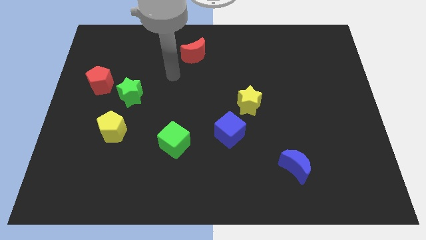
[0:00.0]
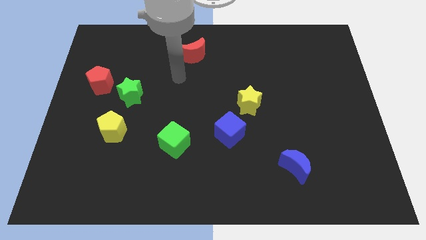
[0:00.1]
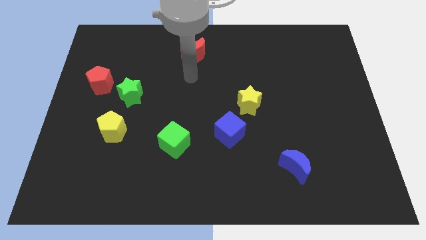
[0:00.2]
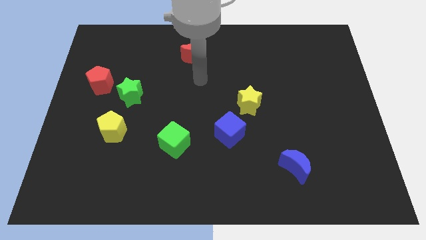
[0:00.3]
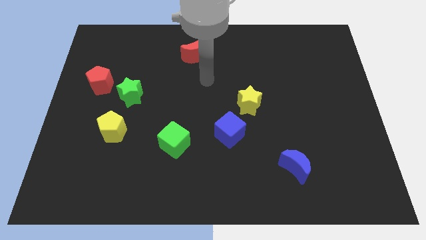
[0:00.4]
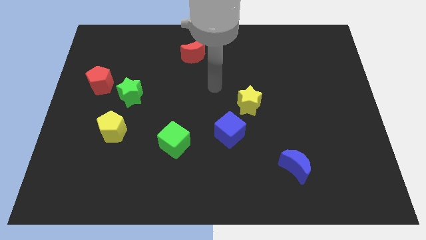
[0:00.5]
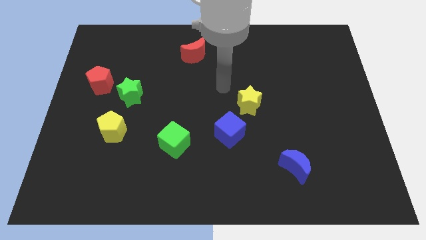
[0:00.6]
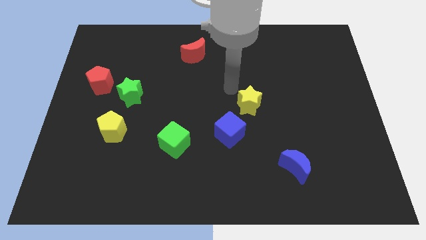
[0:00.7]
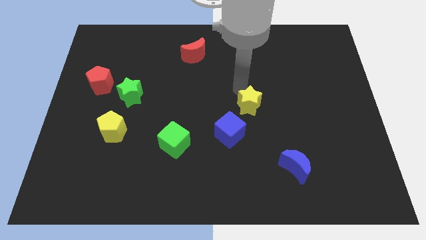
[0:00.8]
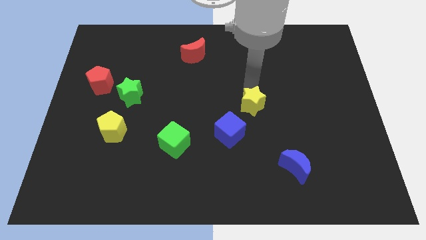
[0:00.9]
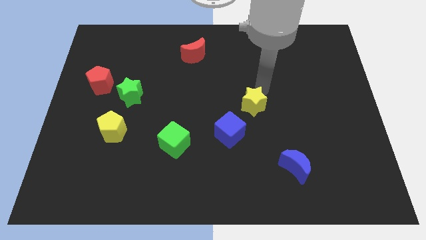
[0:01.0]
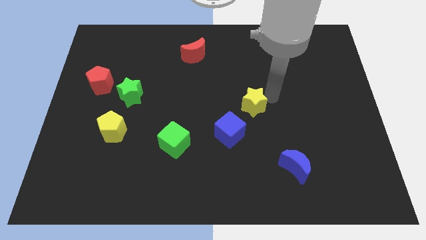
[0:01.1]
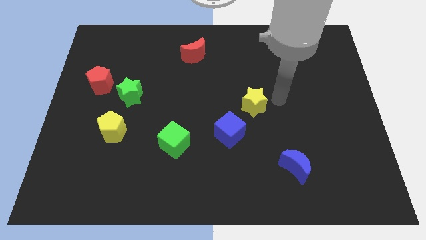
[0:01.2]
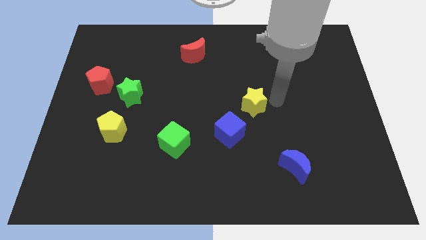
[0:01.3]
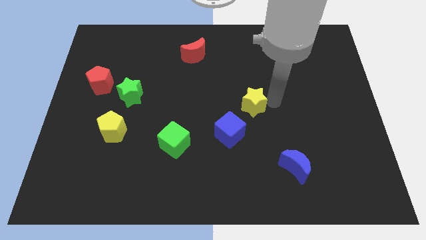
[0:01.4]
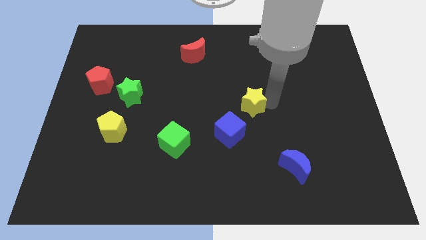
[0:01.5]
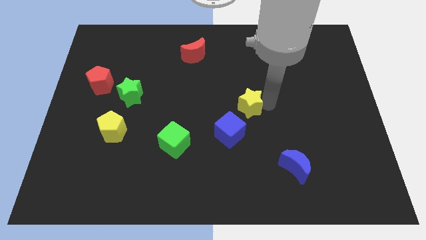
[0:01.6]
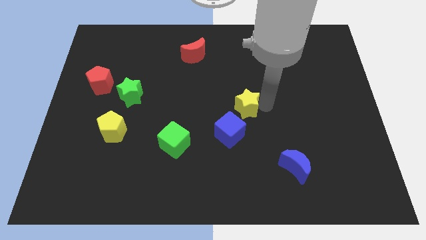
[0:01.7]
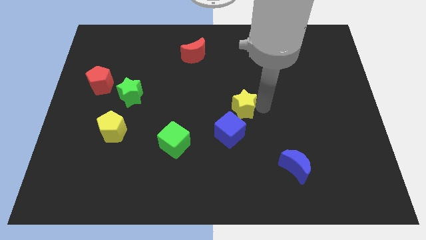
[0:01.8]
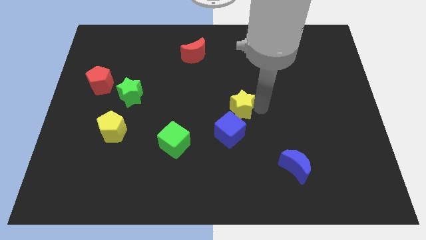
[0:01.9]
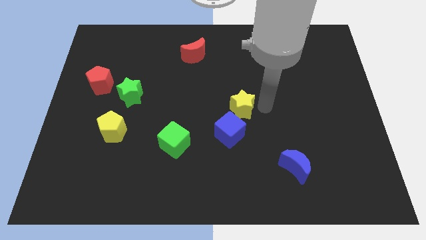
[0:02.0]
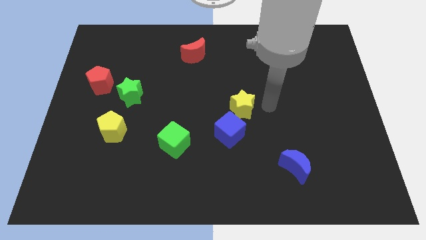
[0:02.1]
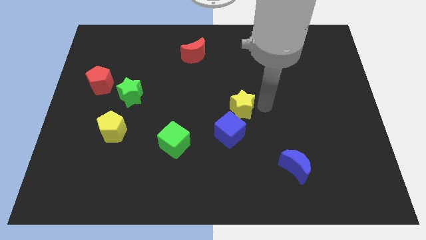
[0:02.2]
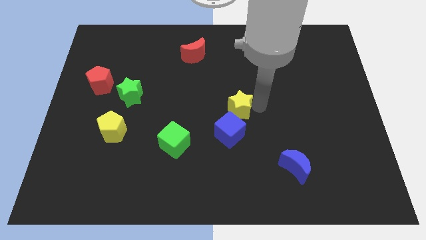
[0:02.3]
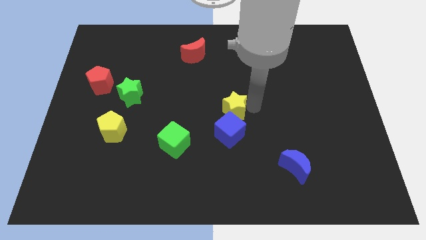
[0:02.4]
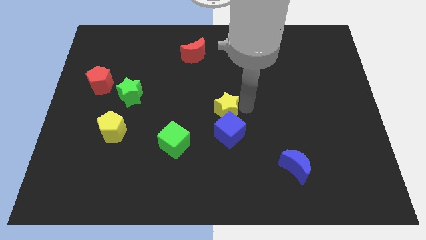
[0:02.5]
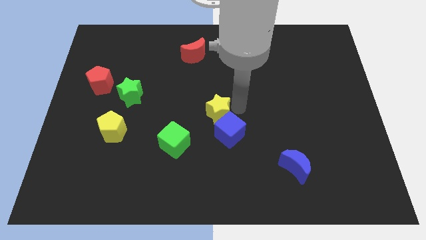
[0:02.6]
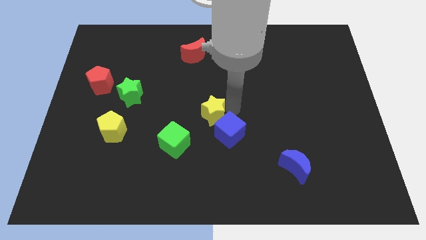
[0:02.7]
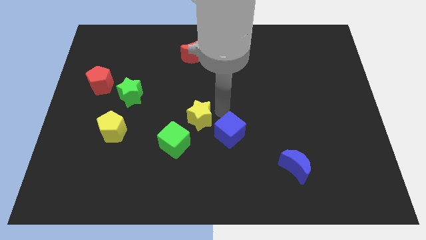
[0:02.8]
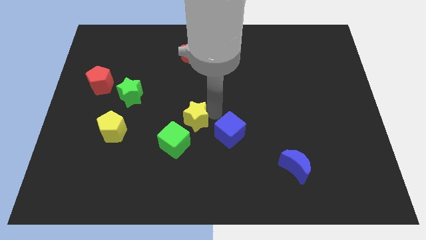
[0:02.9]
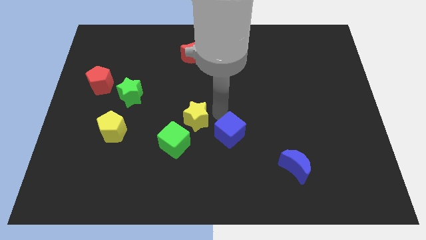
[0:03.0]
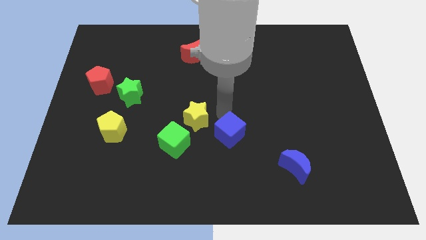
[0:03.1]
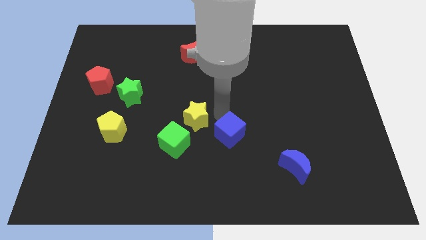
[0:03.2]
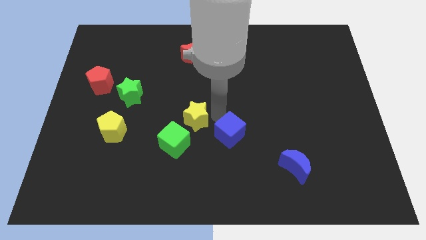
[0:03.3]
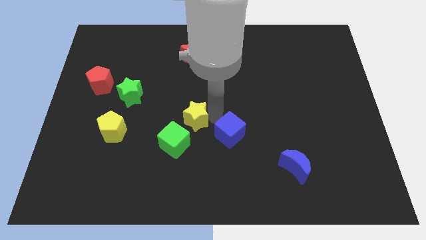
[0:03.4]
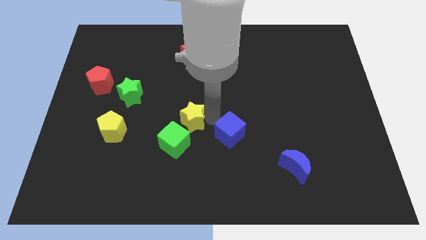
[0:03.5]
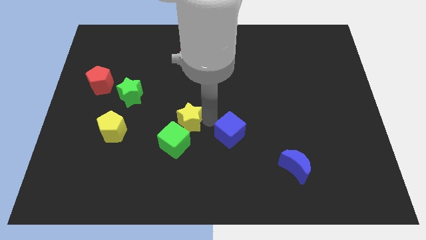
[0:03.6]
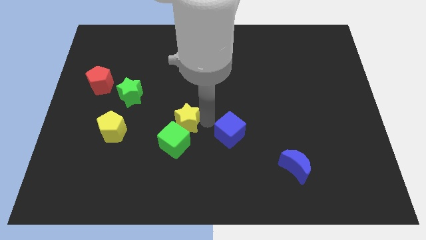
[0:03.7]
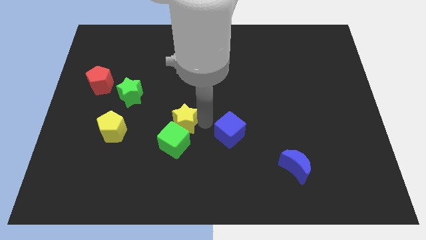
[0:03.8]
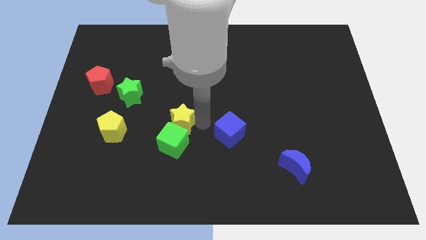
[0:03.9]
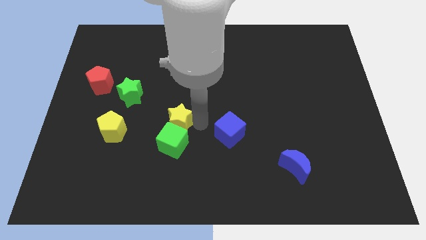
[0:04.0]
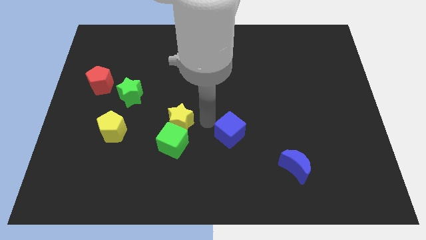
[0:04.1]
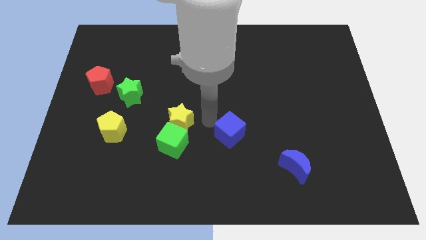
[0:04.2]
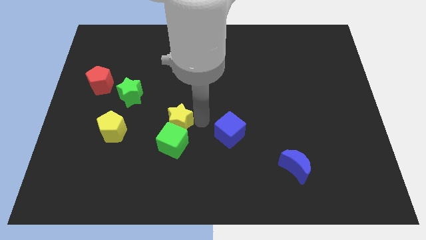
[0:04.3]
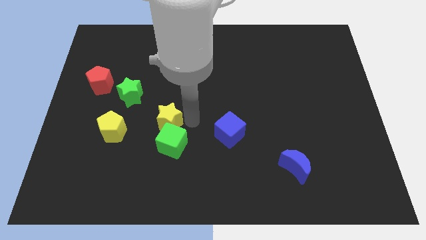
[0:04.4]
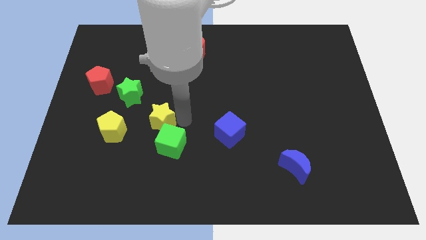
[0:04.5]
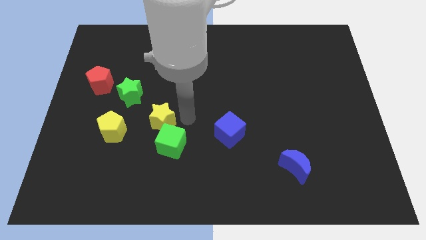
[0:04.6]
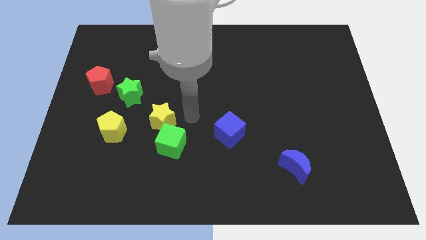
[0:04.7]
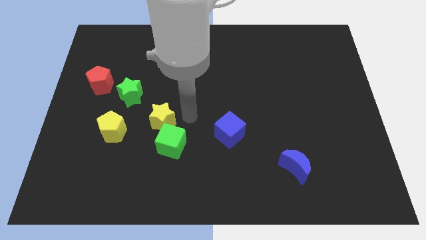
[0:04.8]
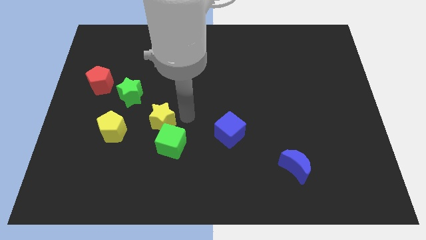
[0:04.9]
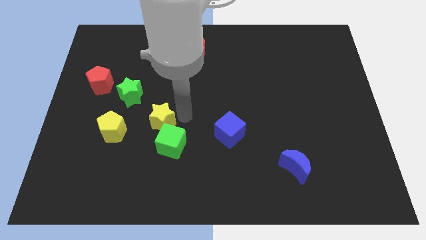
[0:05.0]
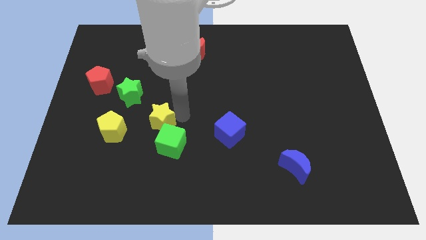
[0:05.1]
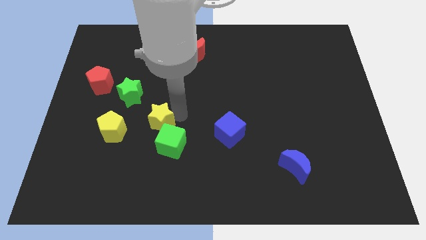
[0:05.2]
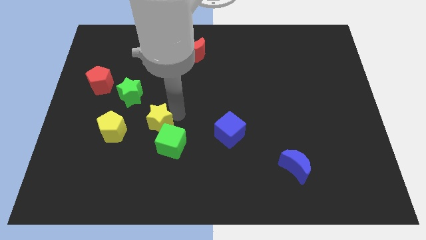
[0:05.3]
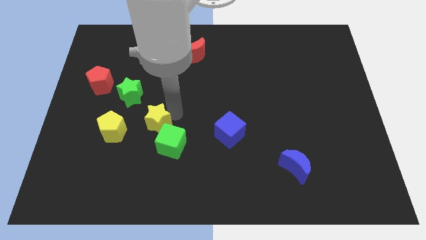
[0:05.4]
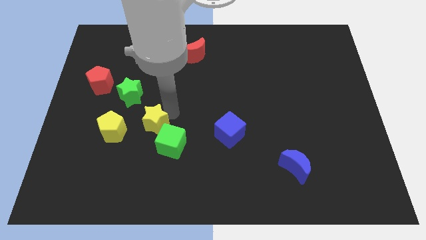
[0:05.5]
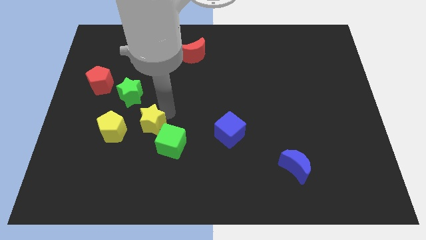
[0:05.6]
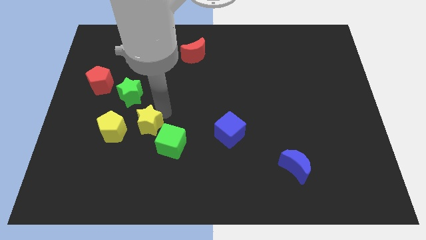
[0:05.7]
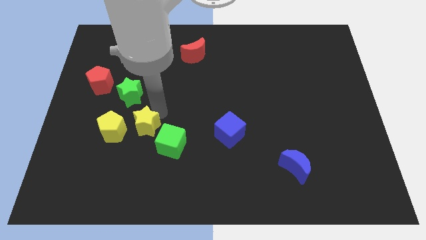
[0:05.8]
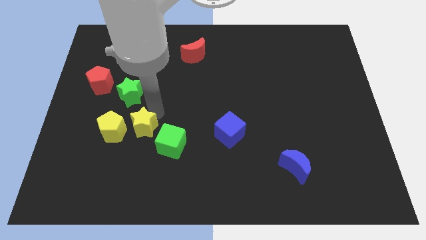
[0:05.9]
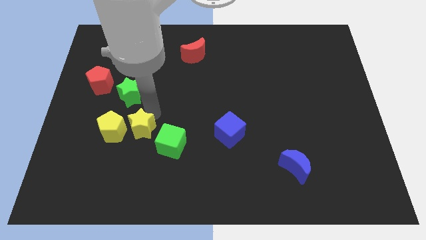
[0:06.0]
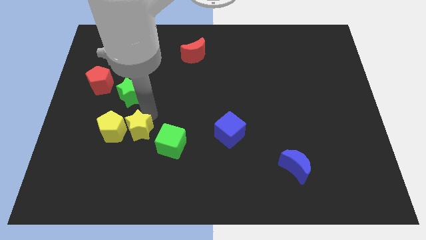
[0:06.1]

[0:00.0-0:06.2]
put the yellow star close to the yellow pentagon

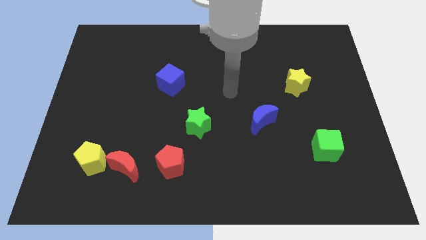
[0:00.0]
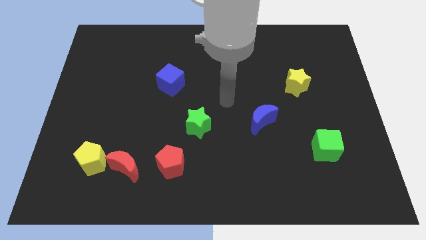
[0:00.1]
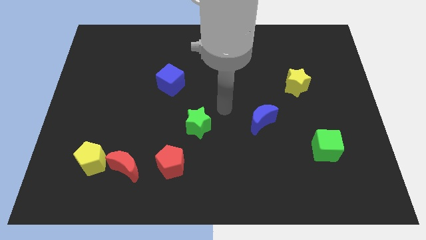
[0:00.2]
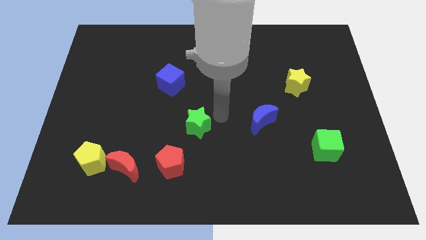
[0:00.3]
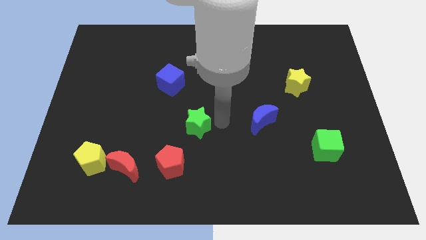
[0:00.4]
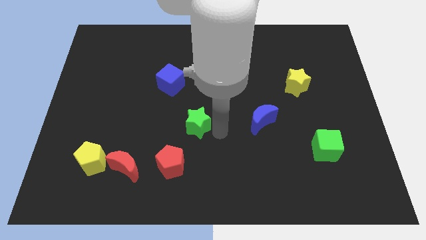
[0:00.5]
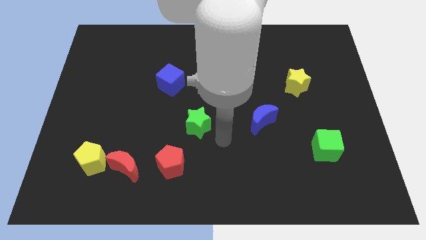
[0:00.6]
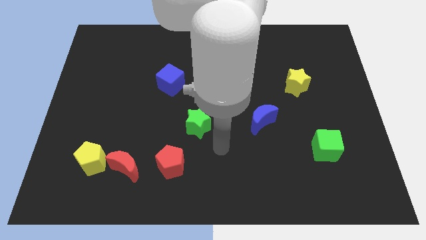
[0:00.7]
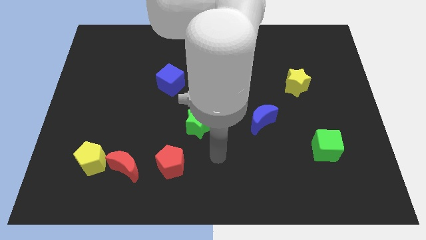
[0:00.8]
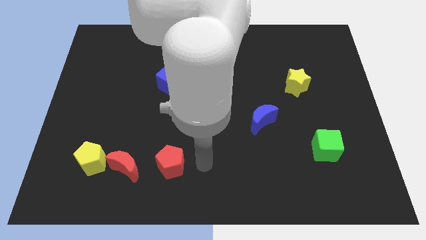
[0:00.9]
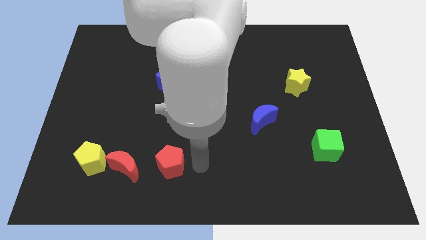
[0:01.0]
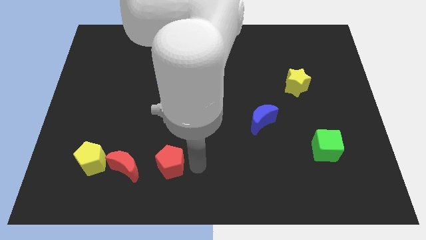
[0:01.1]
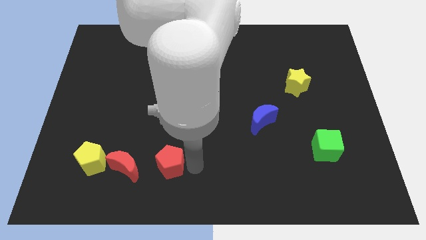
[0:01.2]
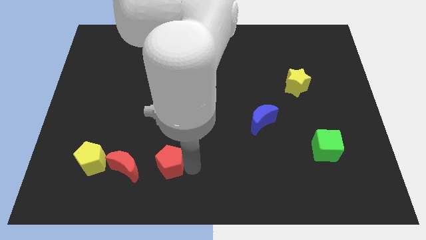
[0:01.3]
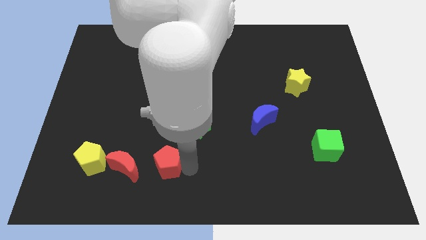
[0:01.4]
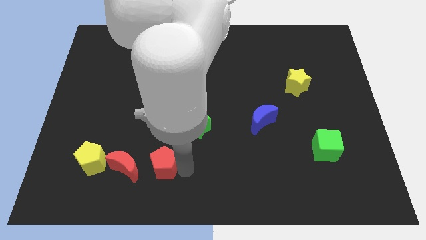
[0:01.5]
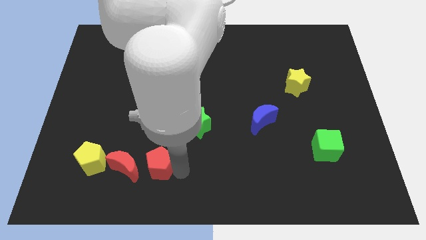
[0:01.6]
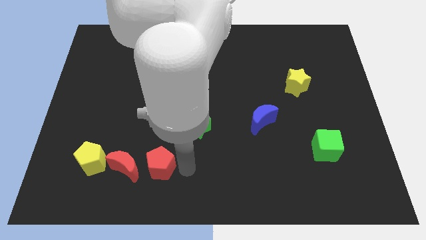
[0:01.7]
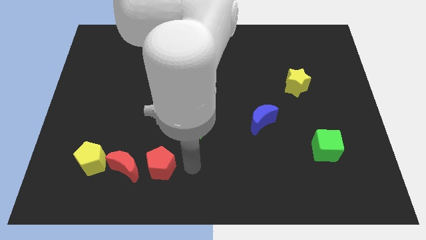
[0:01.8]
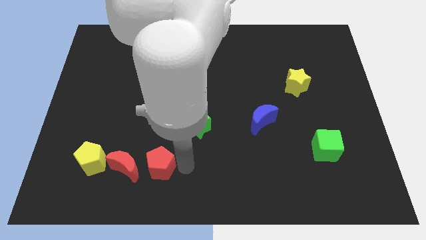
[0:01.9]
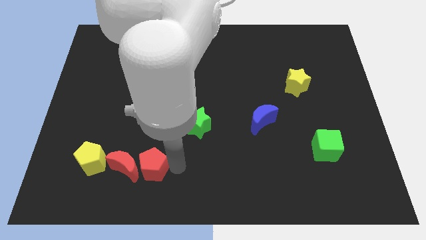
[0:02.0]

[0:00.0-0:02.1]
move the red pentagon close to the red moon
